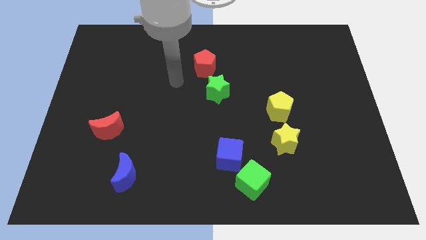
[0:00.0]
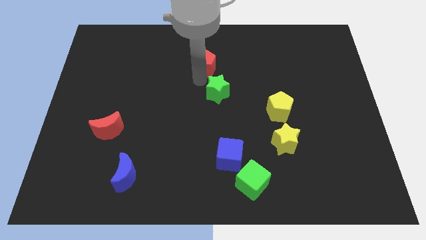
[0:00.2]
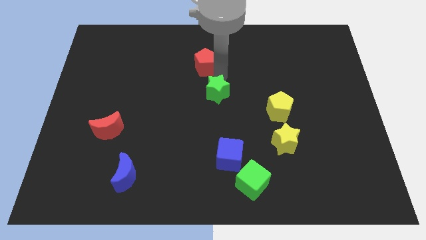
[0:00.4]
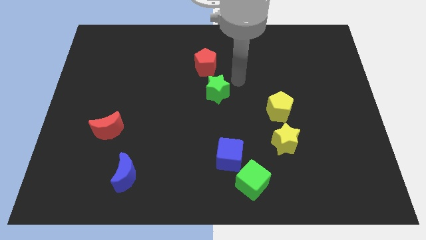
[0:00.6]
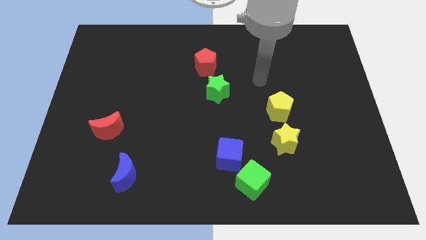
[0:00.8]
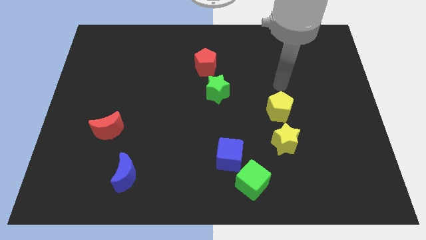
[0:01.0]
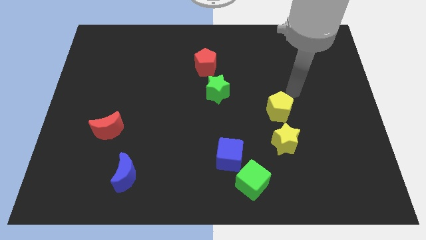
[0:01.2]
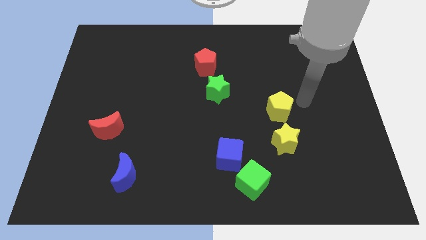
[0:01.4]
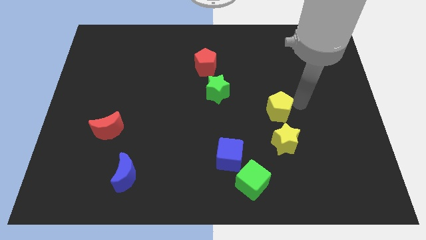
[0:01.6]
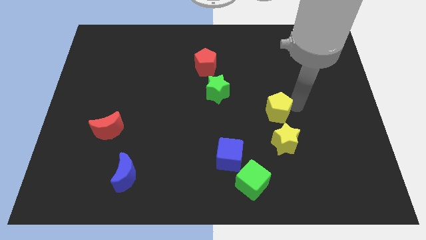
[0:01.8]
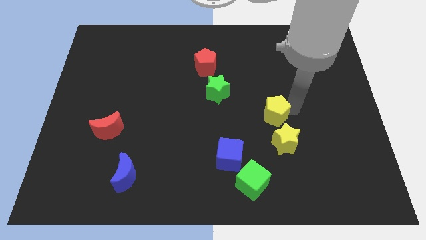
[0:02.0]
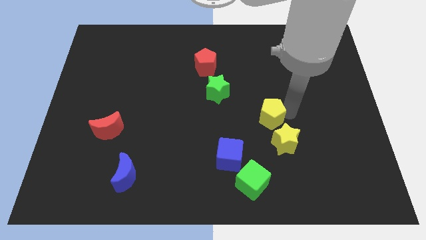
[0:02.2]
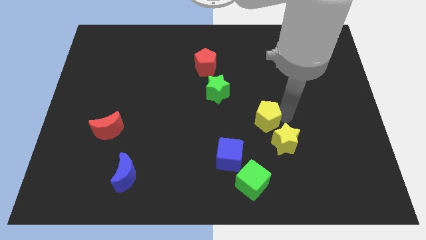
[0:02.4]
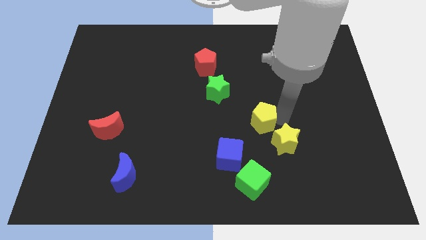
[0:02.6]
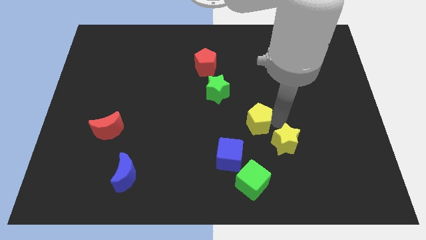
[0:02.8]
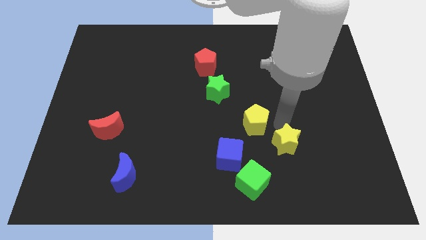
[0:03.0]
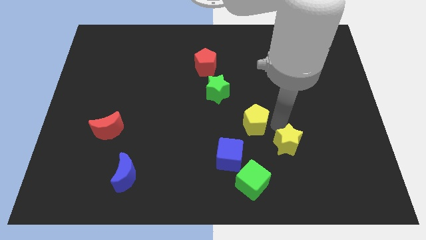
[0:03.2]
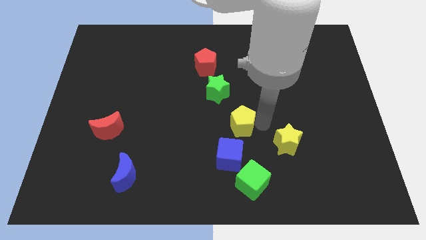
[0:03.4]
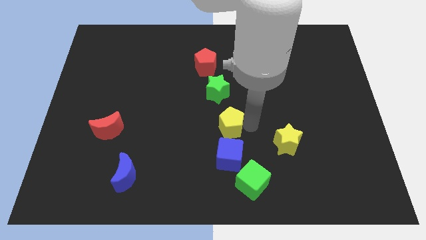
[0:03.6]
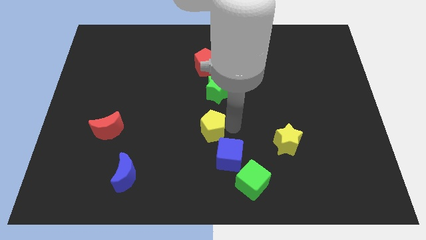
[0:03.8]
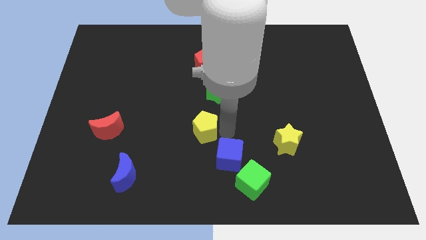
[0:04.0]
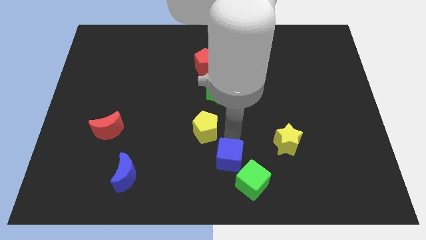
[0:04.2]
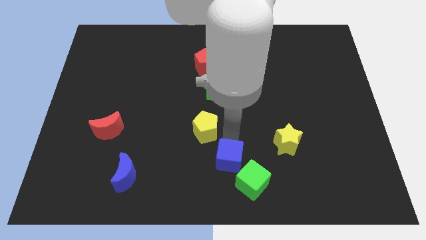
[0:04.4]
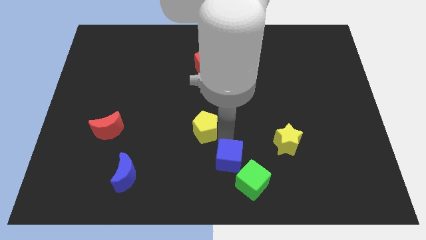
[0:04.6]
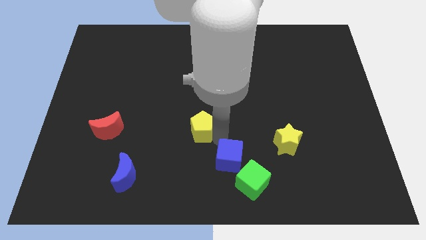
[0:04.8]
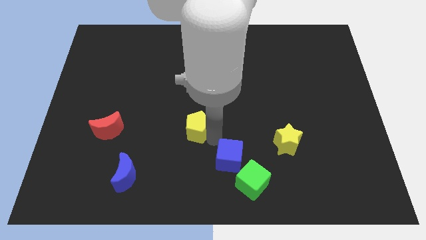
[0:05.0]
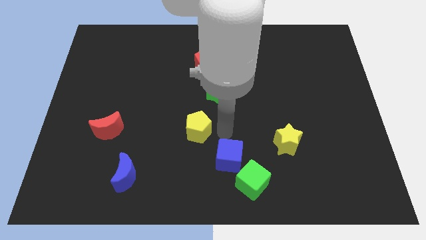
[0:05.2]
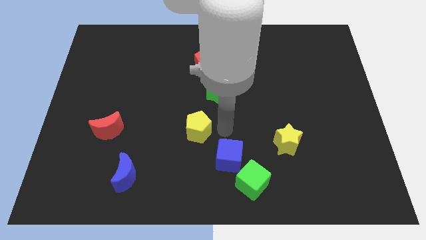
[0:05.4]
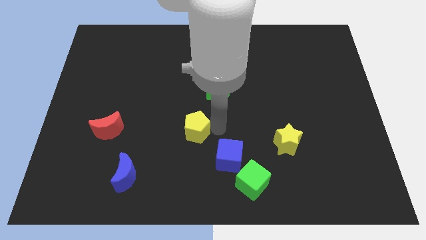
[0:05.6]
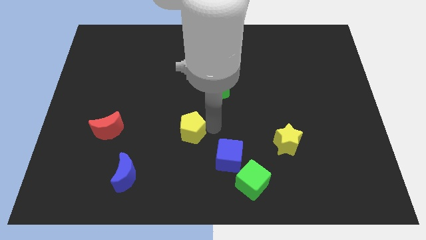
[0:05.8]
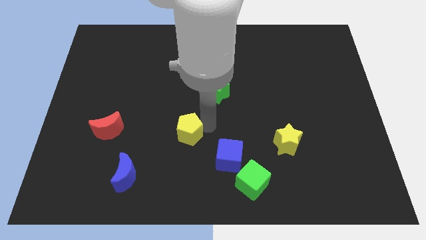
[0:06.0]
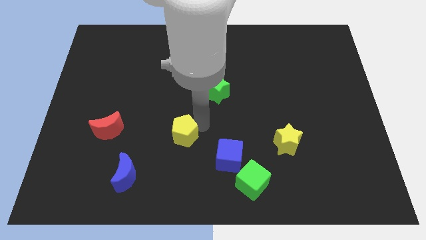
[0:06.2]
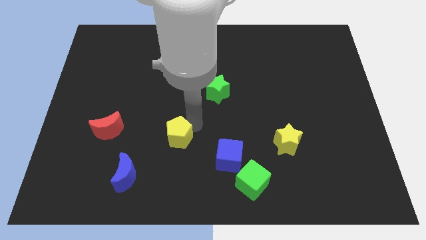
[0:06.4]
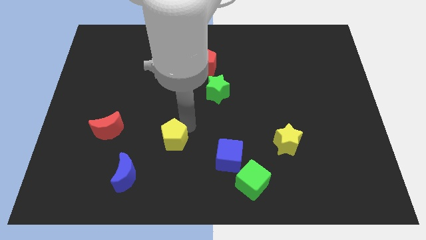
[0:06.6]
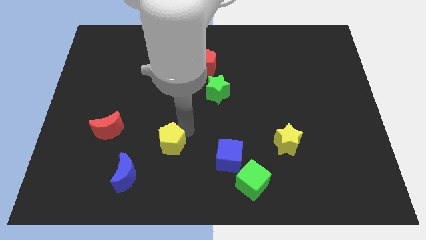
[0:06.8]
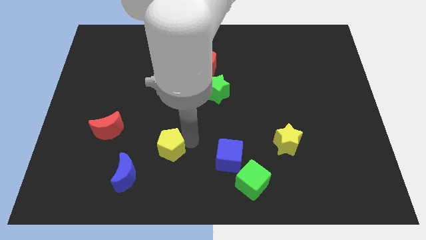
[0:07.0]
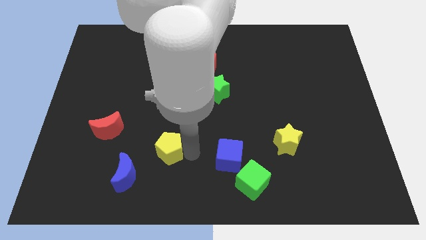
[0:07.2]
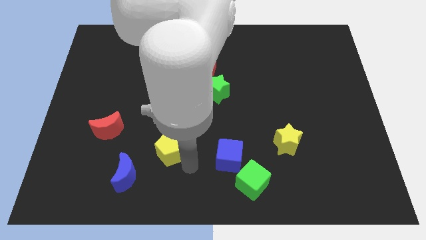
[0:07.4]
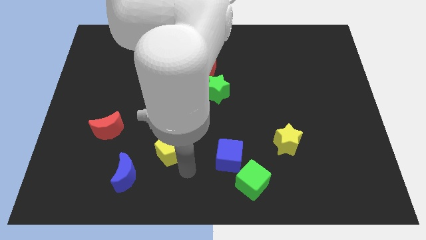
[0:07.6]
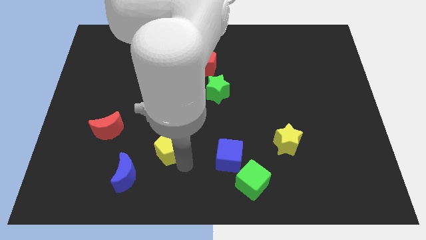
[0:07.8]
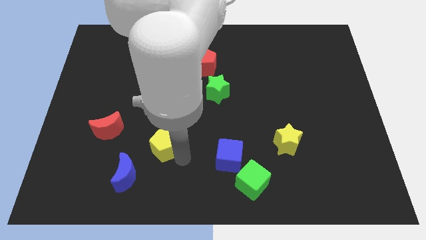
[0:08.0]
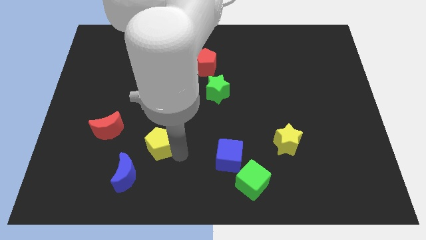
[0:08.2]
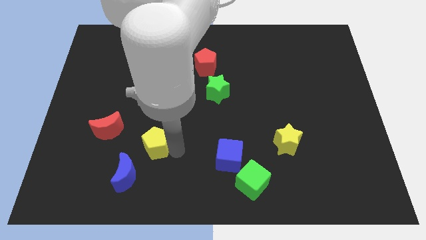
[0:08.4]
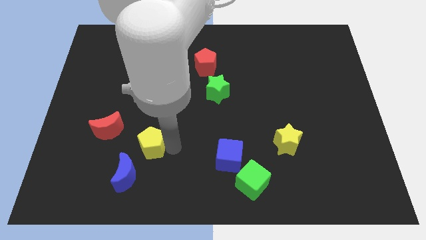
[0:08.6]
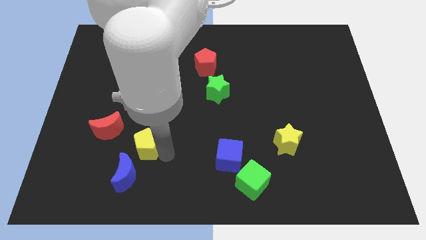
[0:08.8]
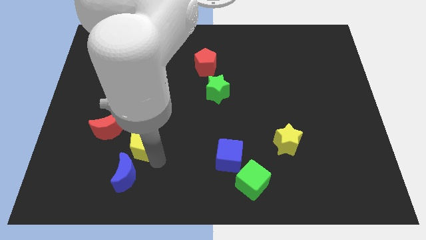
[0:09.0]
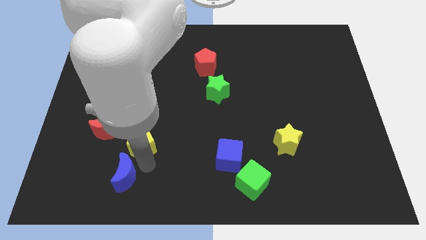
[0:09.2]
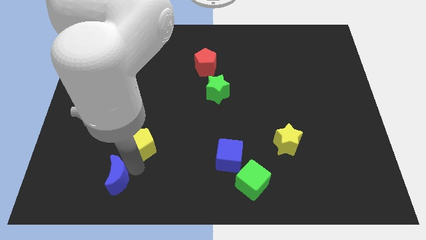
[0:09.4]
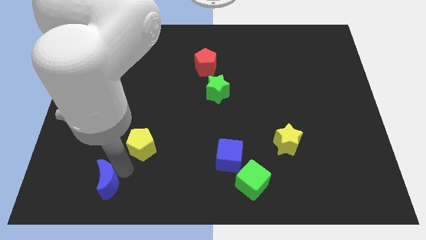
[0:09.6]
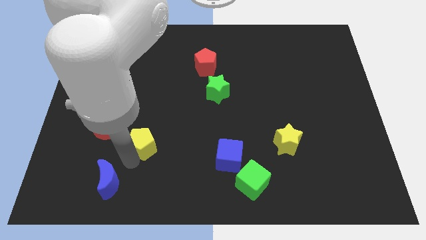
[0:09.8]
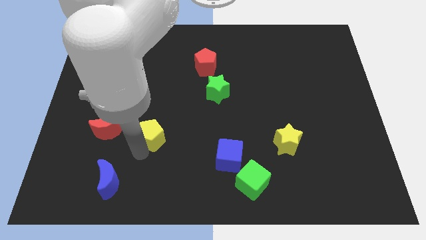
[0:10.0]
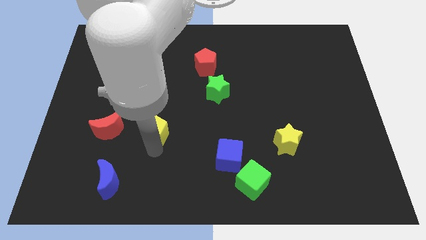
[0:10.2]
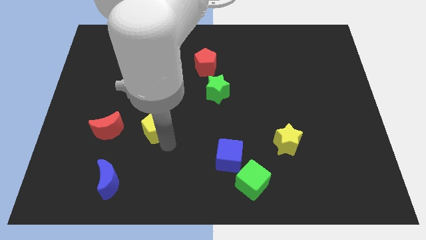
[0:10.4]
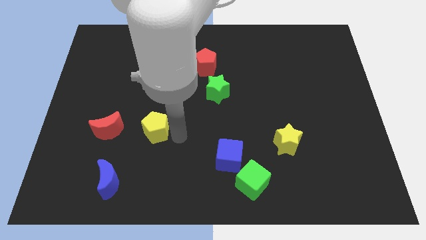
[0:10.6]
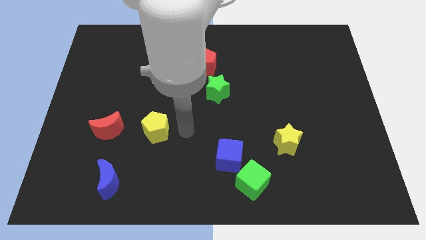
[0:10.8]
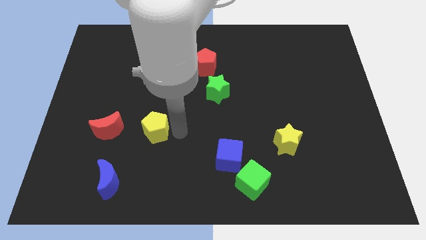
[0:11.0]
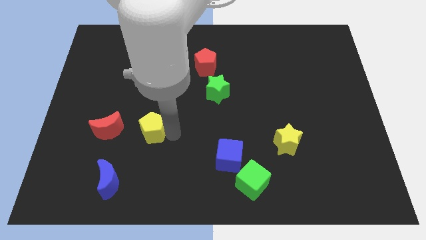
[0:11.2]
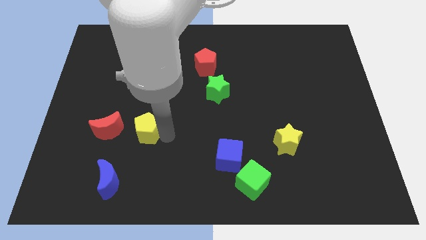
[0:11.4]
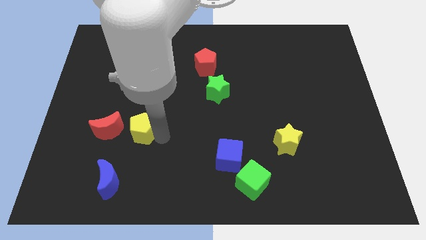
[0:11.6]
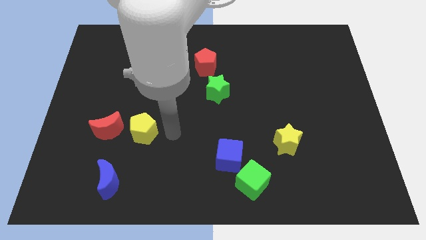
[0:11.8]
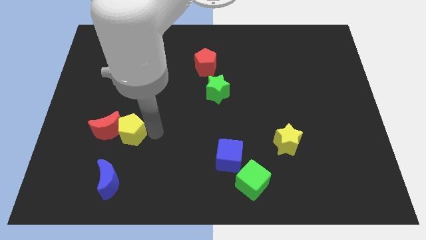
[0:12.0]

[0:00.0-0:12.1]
put the yellow pentagon to the red moon

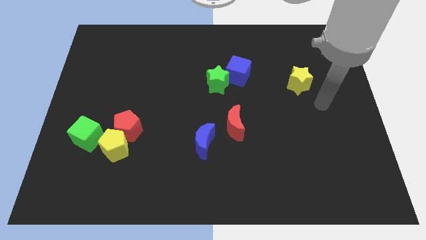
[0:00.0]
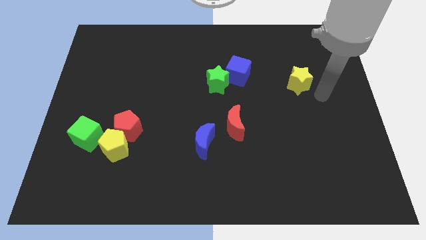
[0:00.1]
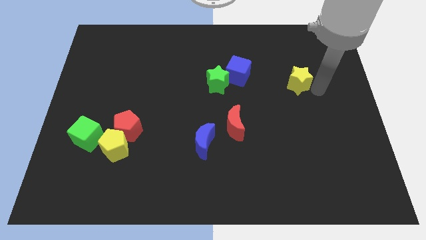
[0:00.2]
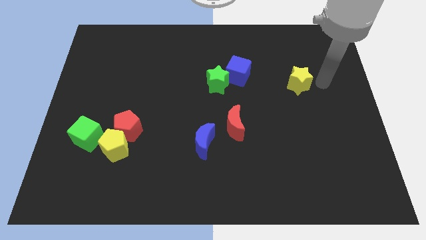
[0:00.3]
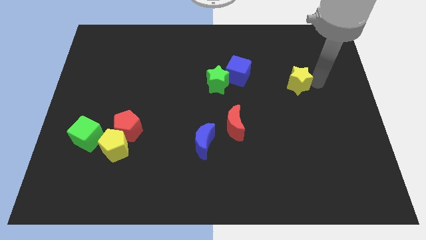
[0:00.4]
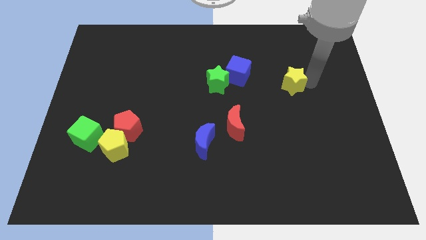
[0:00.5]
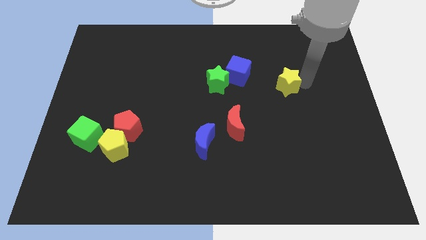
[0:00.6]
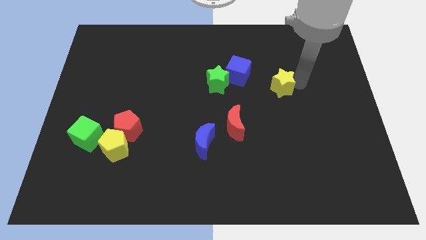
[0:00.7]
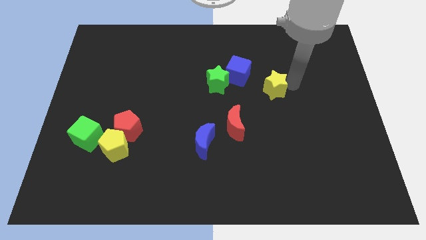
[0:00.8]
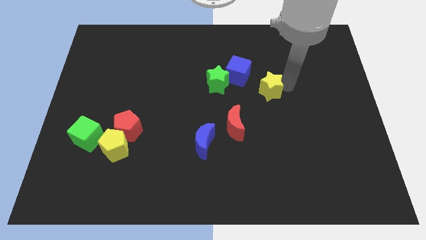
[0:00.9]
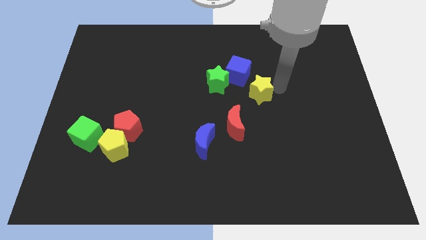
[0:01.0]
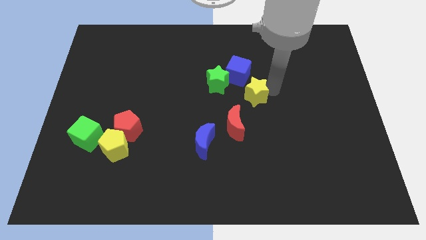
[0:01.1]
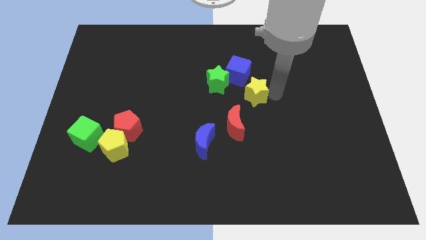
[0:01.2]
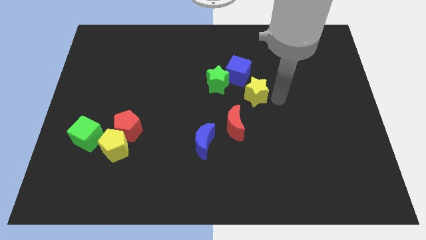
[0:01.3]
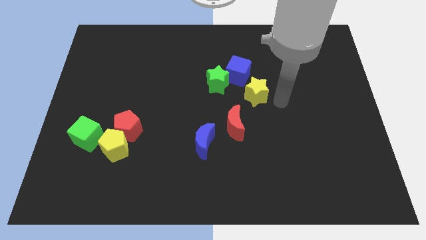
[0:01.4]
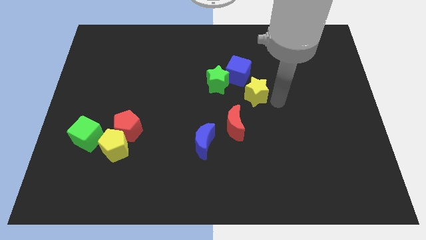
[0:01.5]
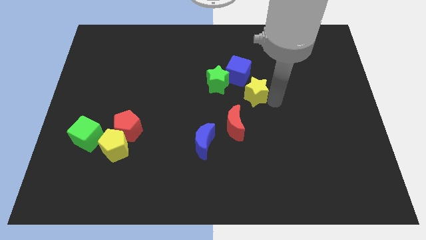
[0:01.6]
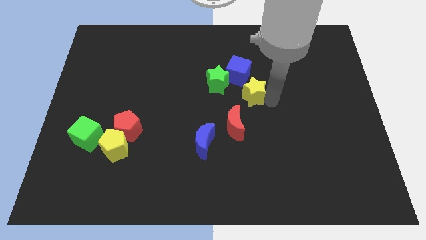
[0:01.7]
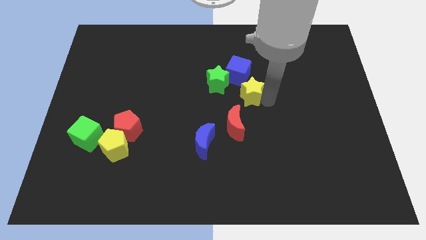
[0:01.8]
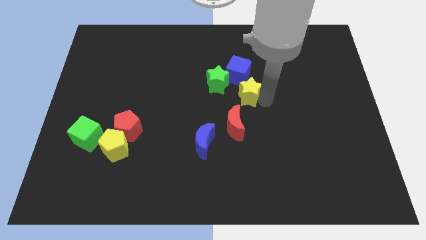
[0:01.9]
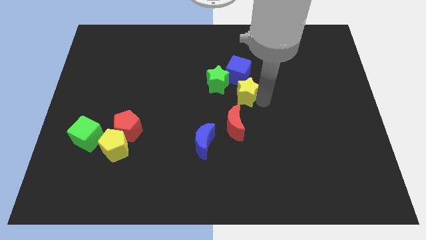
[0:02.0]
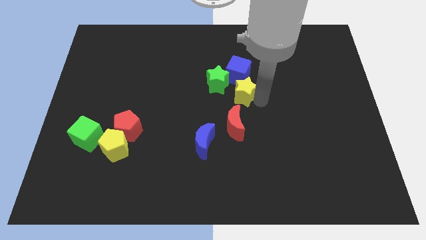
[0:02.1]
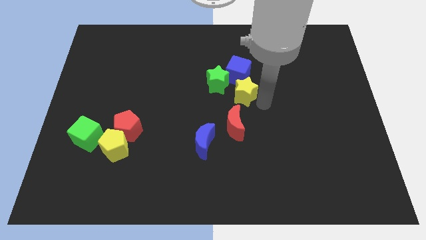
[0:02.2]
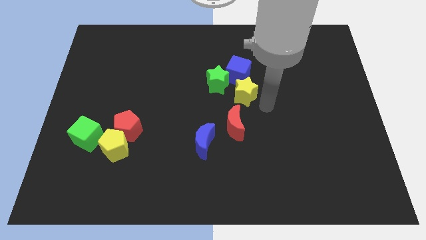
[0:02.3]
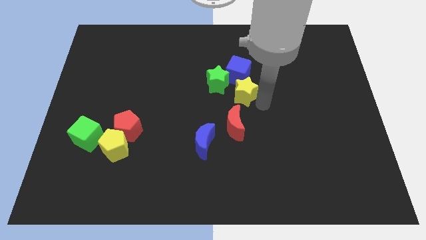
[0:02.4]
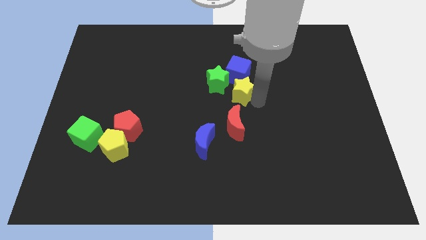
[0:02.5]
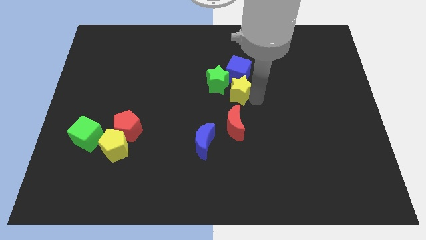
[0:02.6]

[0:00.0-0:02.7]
push the yellow star to the green star
